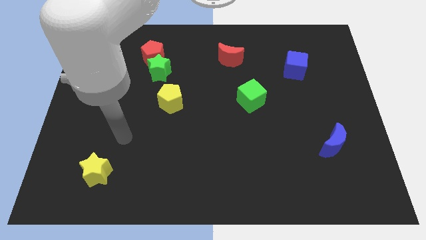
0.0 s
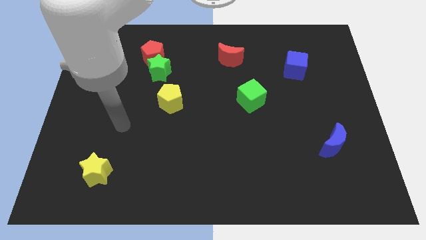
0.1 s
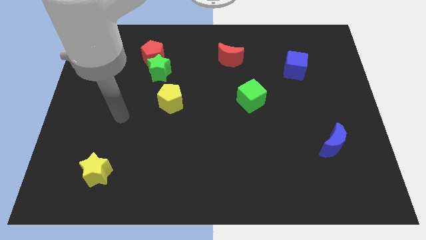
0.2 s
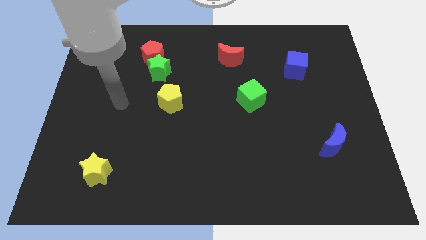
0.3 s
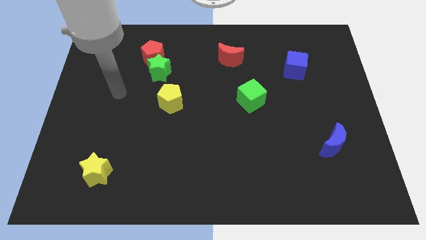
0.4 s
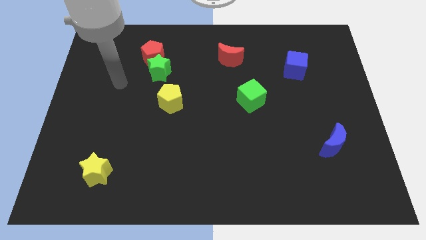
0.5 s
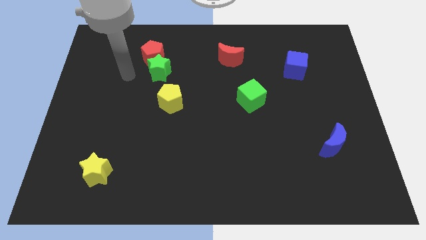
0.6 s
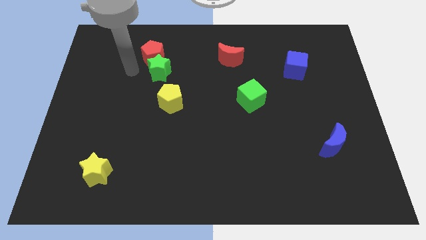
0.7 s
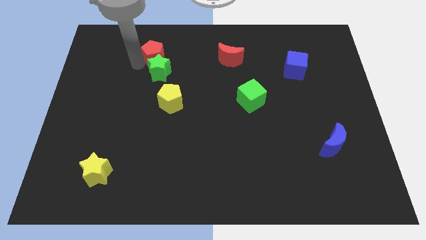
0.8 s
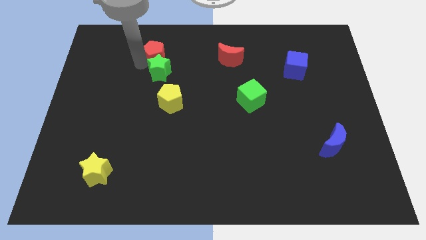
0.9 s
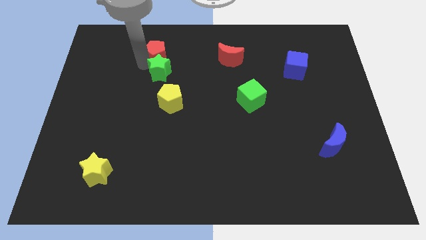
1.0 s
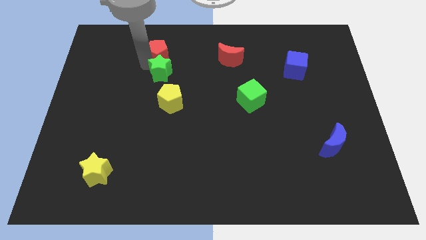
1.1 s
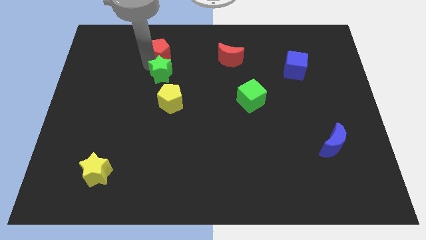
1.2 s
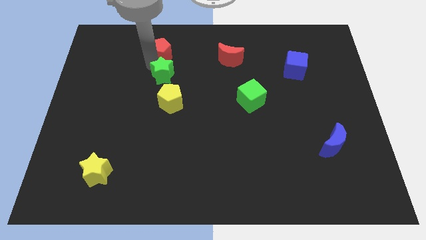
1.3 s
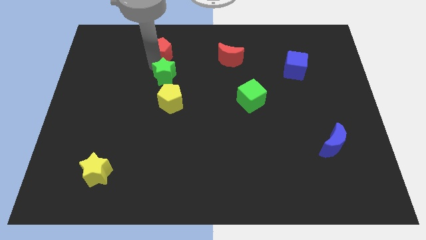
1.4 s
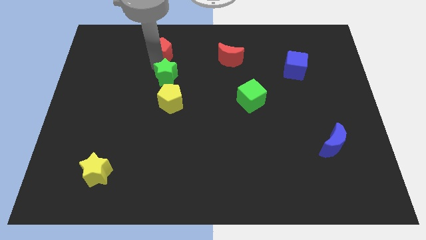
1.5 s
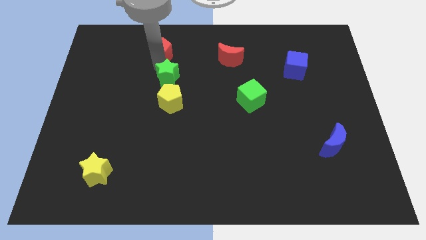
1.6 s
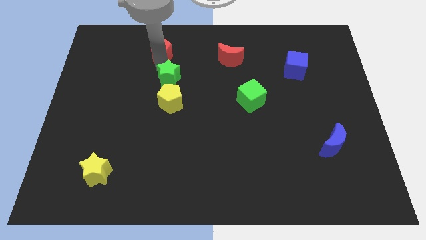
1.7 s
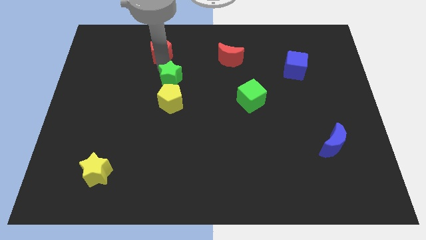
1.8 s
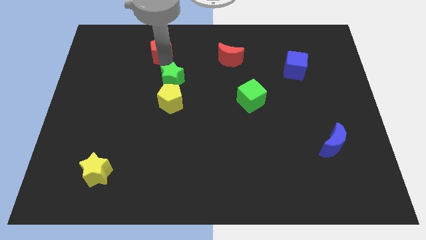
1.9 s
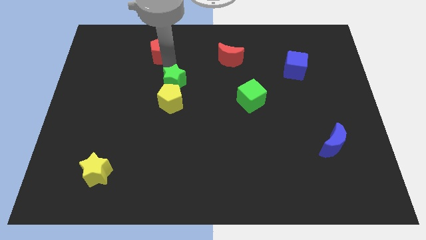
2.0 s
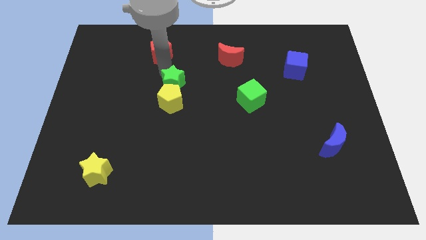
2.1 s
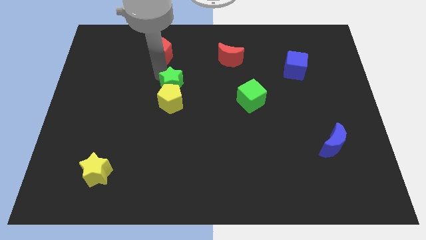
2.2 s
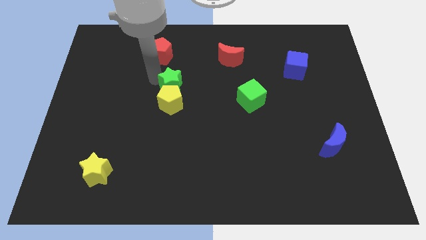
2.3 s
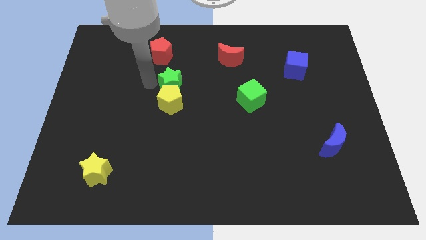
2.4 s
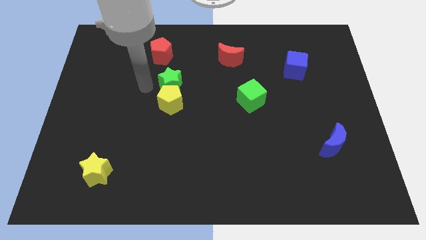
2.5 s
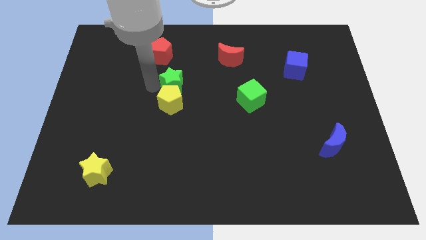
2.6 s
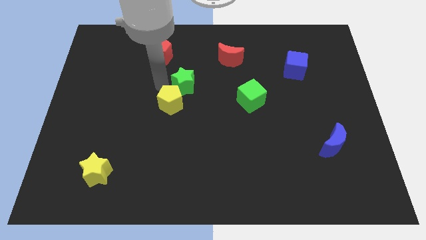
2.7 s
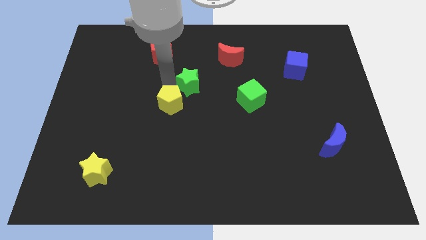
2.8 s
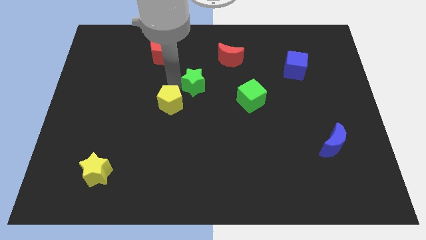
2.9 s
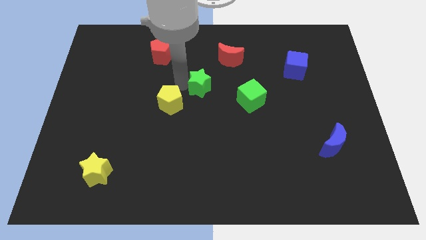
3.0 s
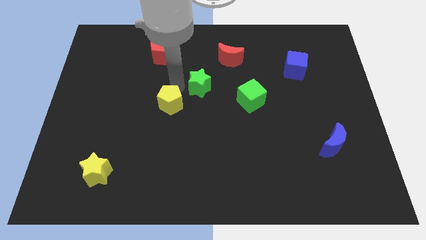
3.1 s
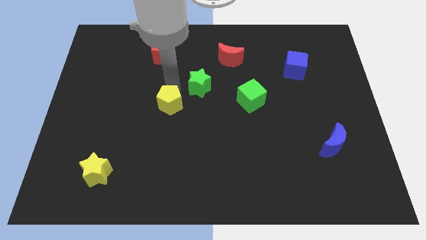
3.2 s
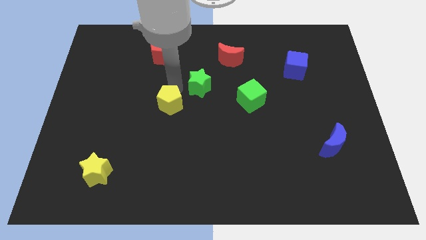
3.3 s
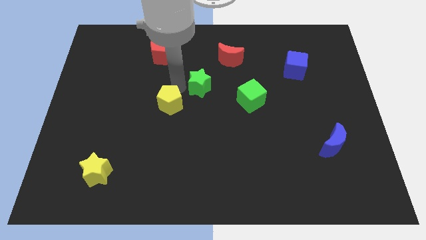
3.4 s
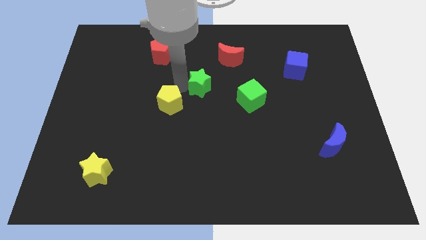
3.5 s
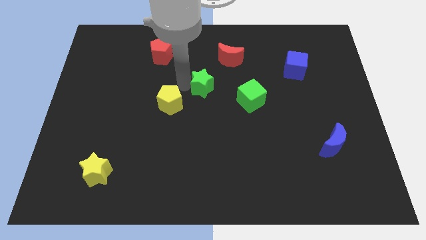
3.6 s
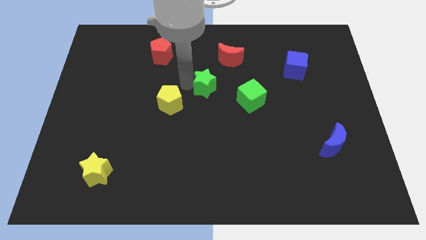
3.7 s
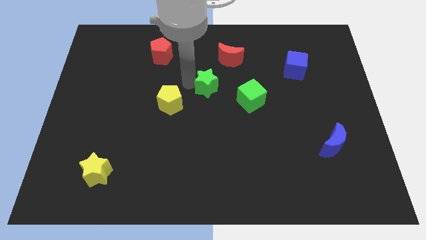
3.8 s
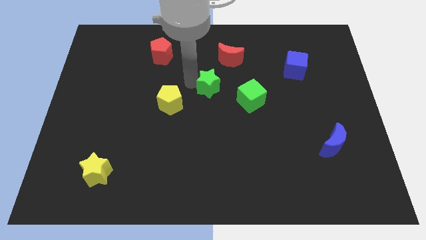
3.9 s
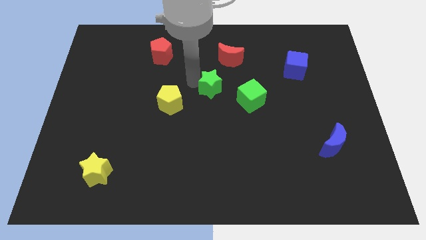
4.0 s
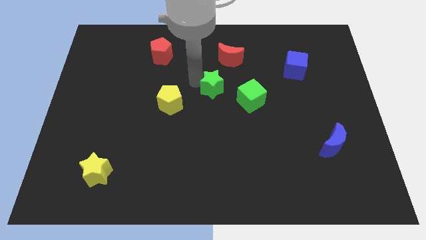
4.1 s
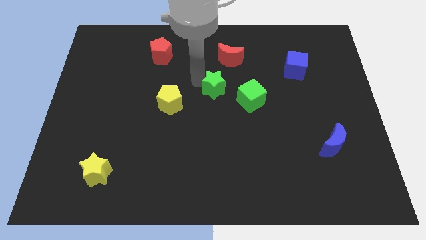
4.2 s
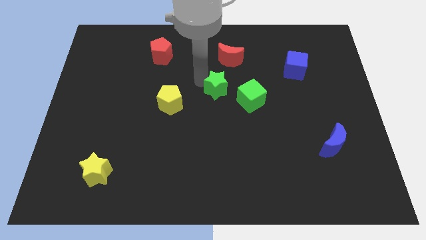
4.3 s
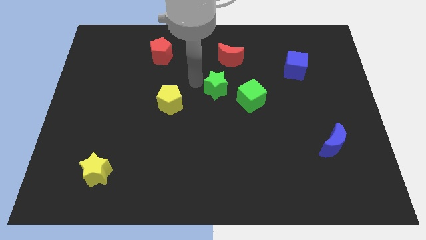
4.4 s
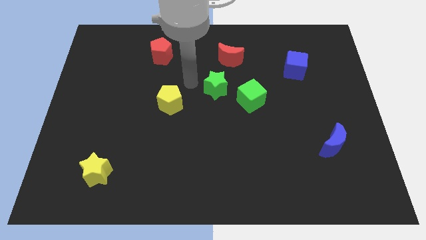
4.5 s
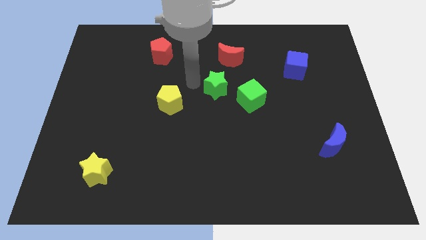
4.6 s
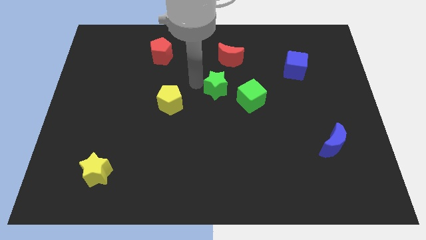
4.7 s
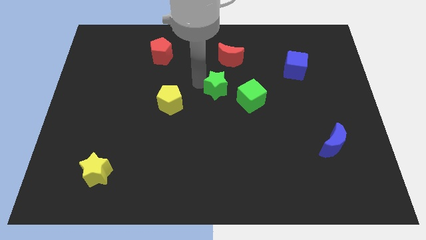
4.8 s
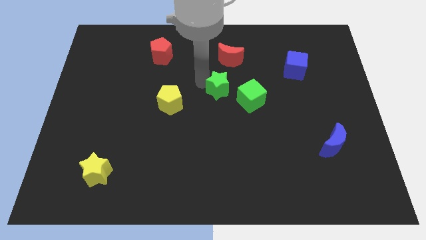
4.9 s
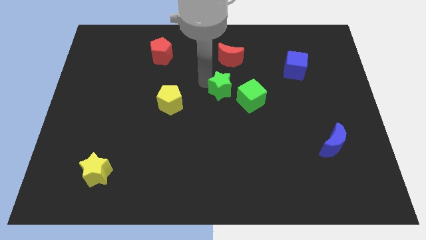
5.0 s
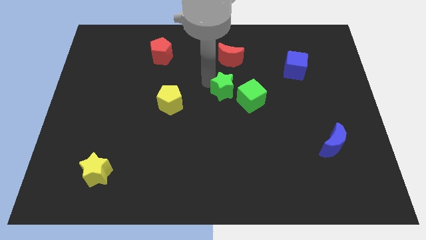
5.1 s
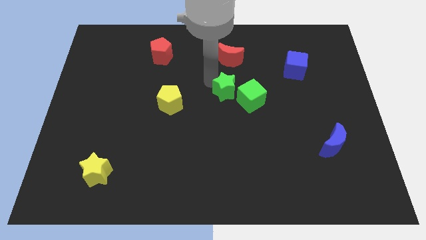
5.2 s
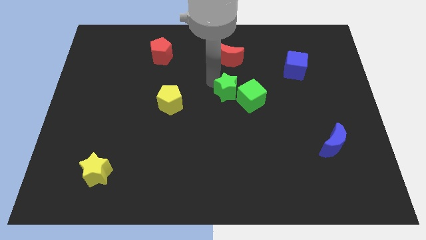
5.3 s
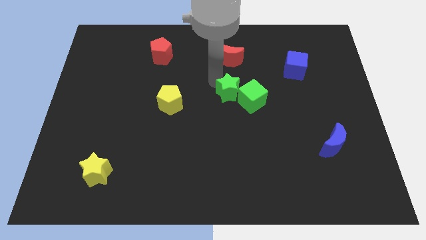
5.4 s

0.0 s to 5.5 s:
put the green star to the green cube
